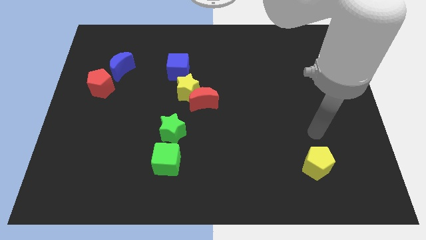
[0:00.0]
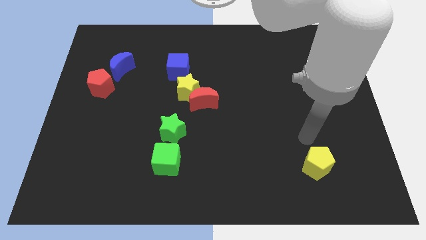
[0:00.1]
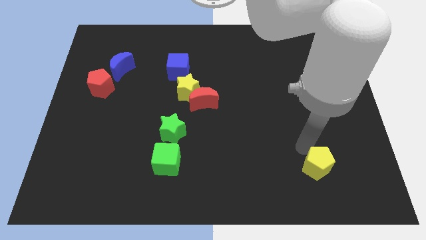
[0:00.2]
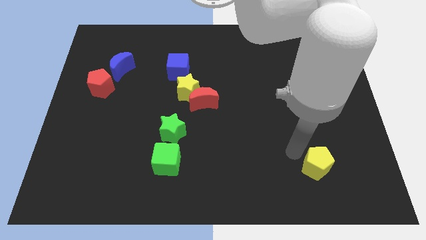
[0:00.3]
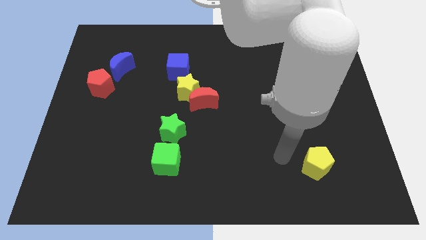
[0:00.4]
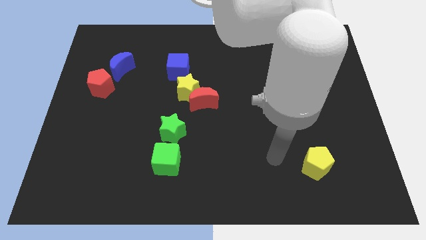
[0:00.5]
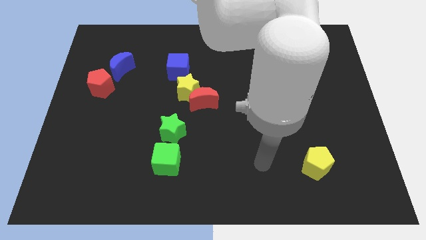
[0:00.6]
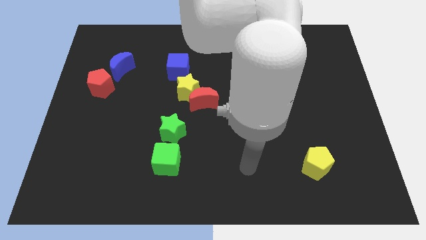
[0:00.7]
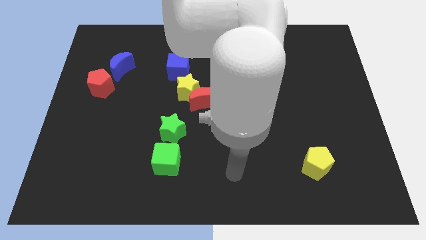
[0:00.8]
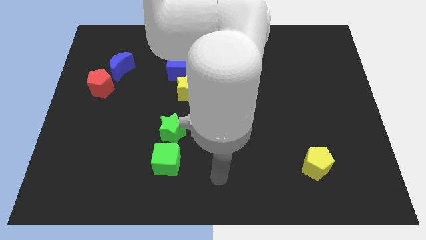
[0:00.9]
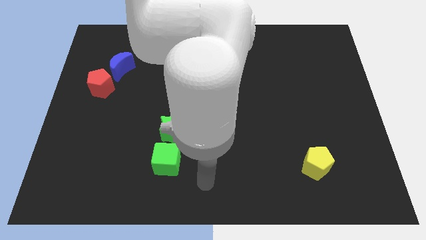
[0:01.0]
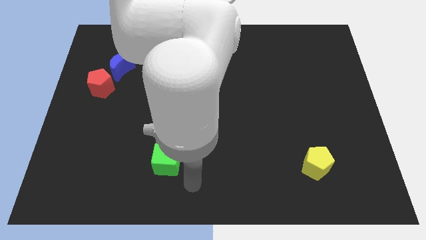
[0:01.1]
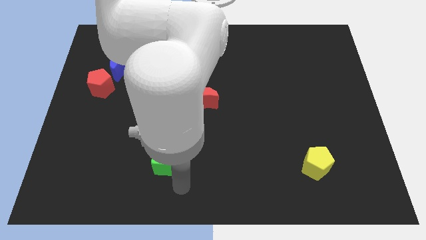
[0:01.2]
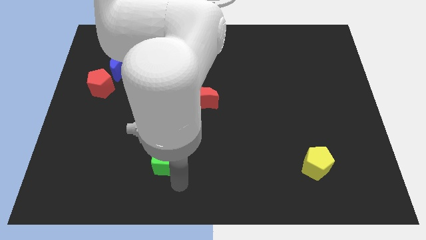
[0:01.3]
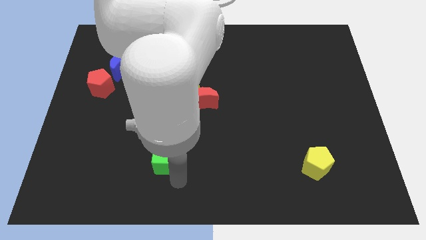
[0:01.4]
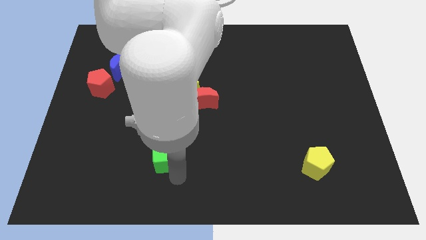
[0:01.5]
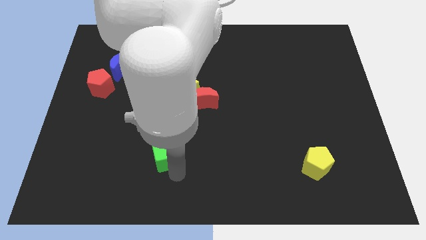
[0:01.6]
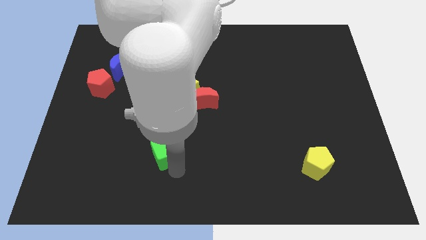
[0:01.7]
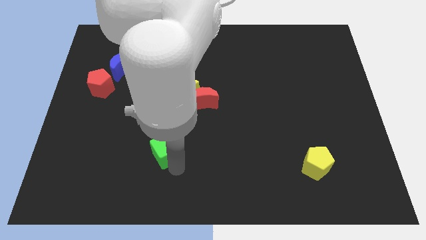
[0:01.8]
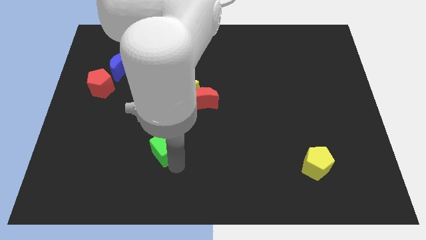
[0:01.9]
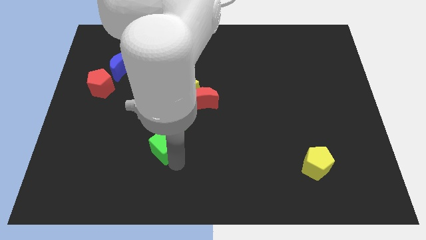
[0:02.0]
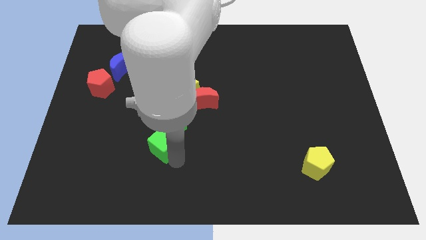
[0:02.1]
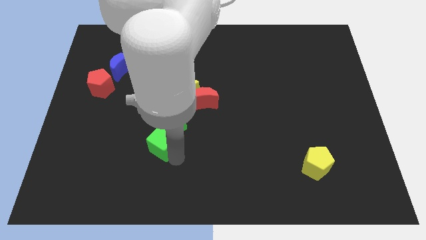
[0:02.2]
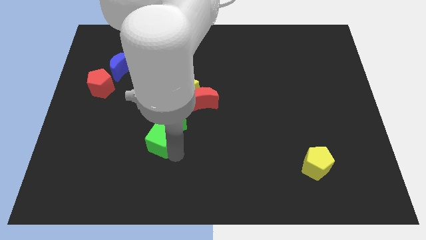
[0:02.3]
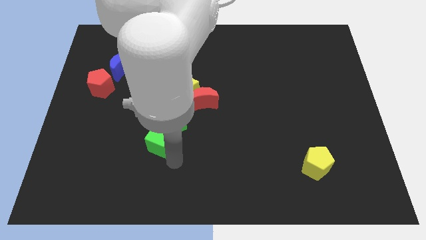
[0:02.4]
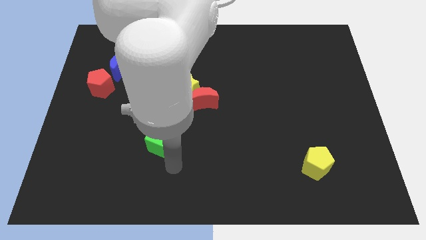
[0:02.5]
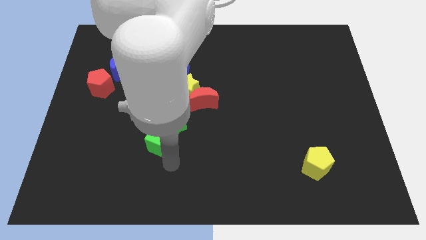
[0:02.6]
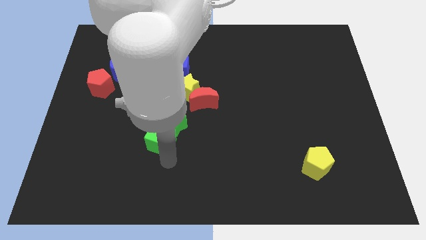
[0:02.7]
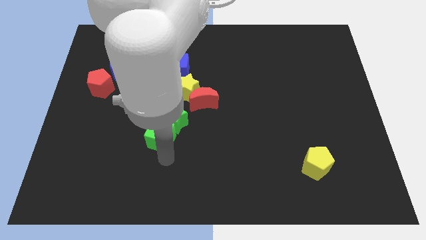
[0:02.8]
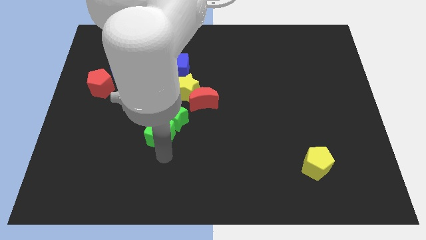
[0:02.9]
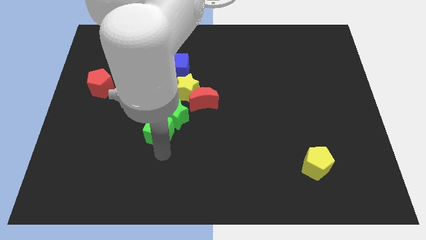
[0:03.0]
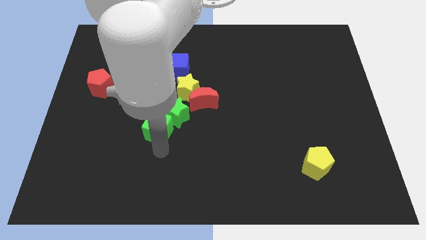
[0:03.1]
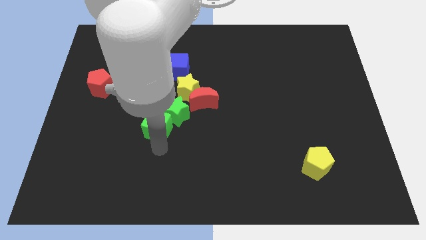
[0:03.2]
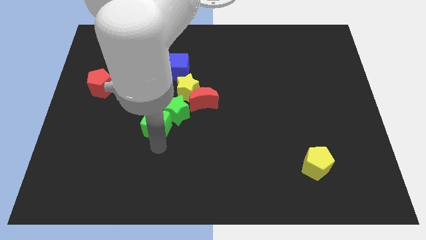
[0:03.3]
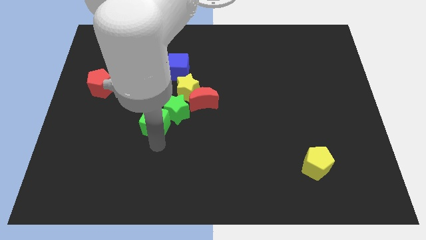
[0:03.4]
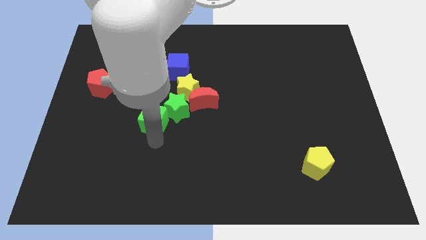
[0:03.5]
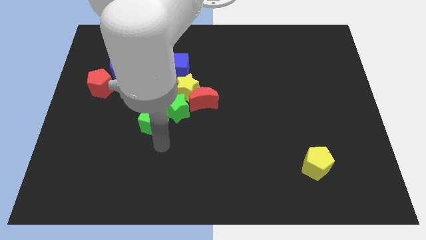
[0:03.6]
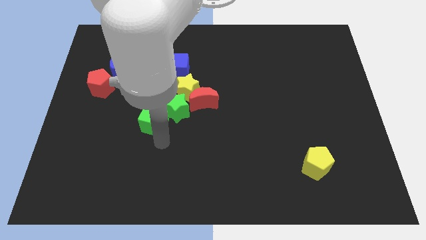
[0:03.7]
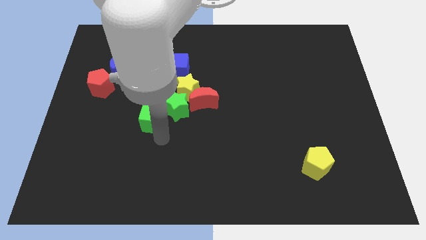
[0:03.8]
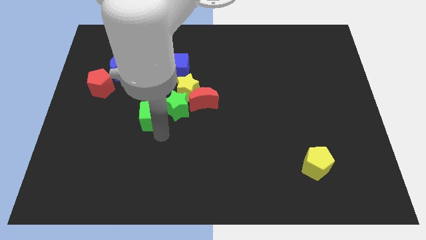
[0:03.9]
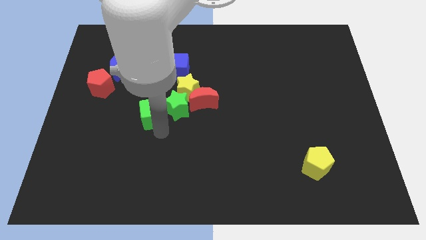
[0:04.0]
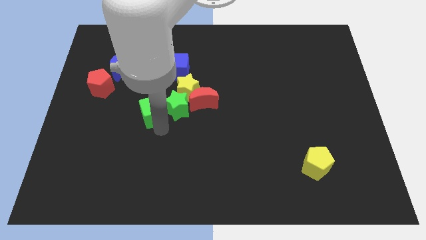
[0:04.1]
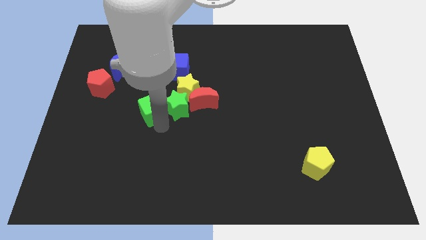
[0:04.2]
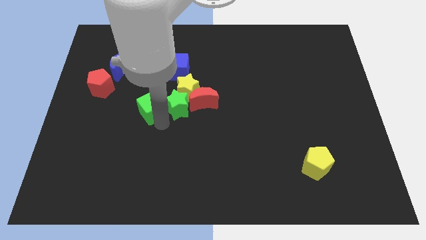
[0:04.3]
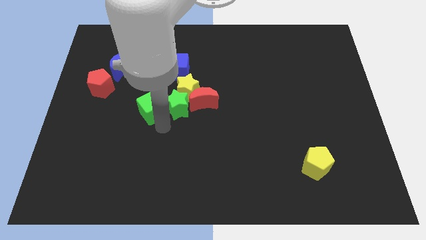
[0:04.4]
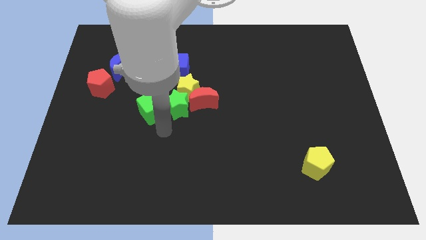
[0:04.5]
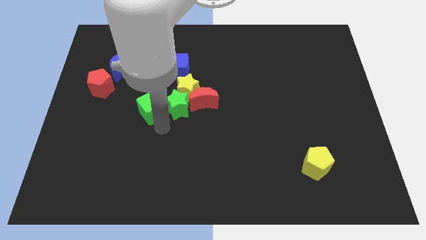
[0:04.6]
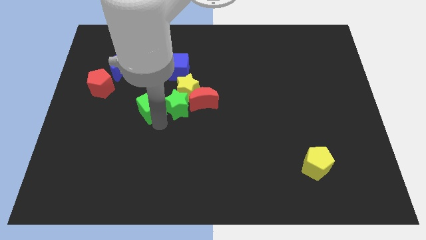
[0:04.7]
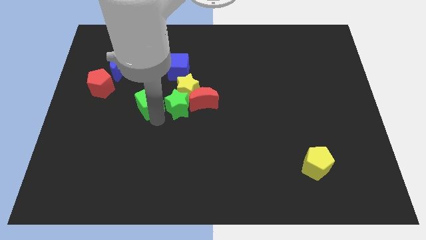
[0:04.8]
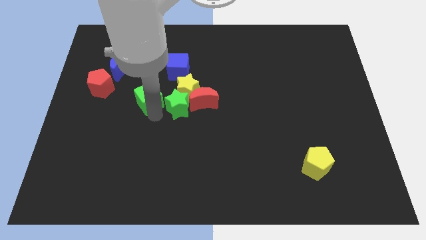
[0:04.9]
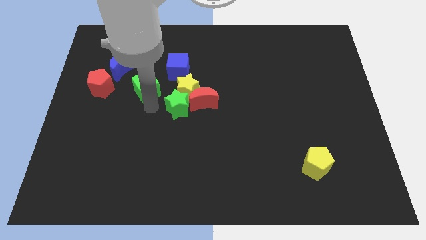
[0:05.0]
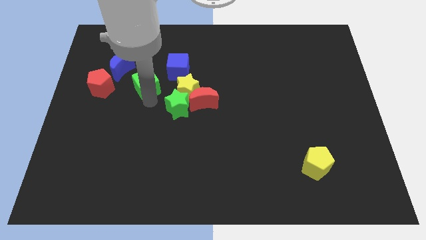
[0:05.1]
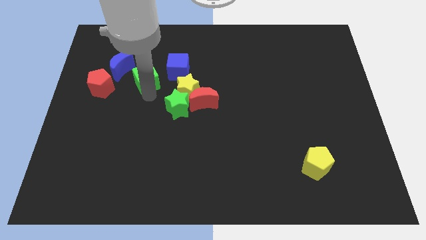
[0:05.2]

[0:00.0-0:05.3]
slide the green cube left of the blue cube

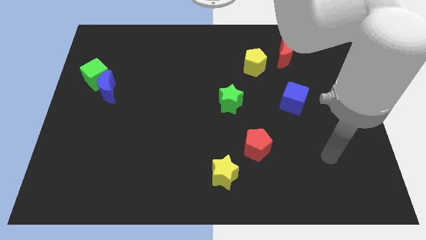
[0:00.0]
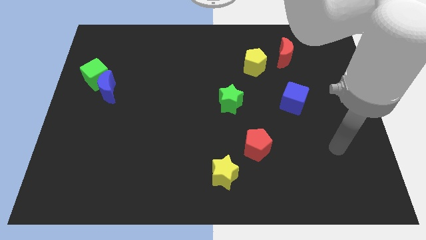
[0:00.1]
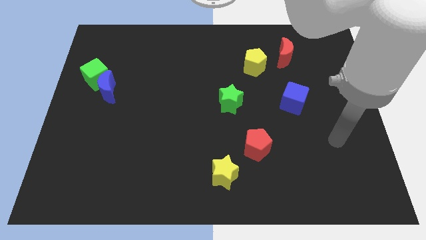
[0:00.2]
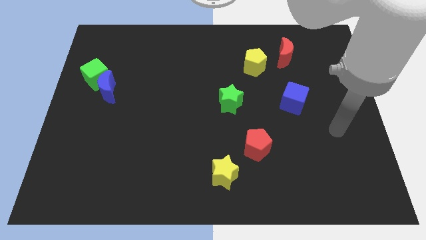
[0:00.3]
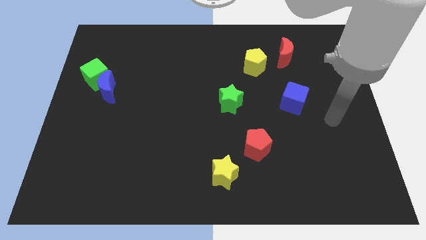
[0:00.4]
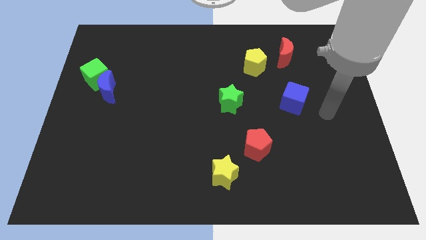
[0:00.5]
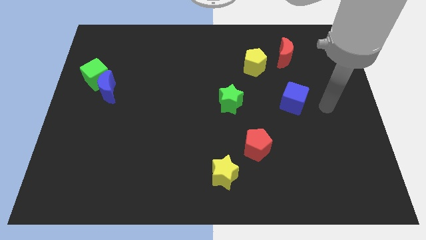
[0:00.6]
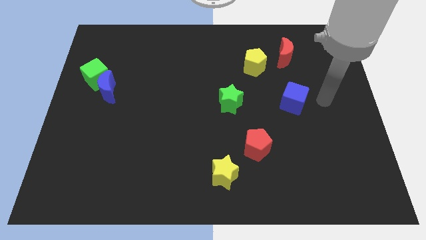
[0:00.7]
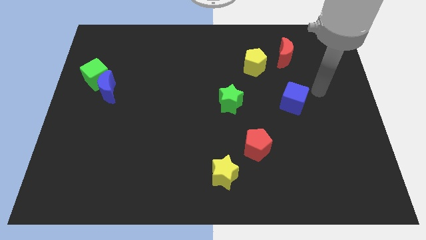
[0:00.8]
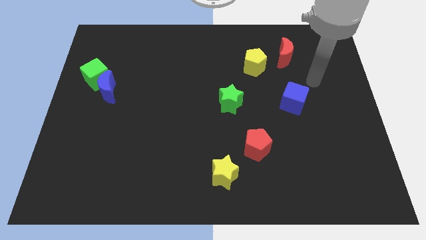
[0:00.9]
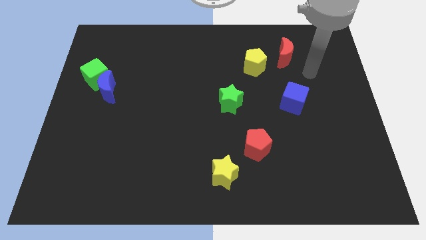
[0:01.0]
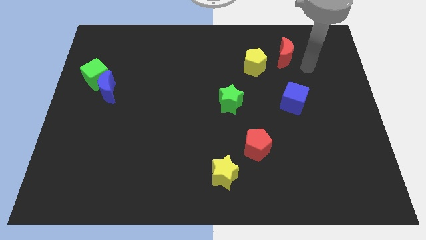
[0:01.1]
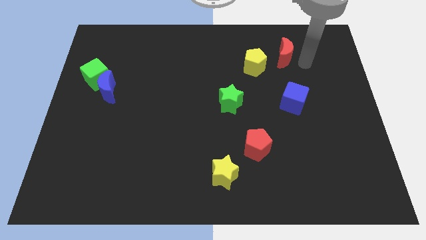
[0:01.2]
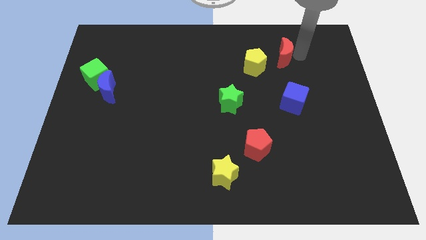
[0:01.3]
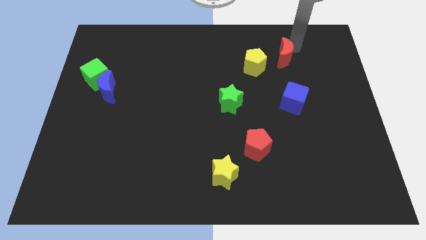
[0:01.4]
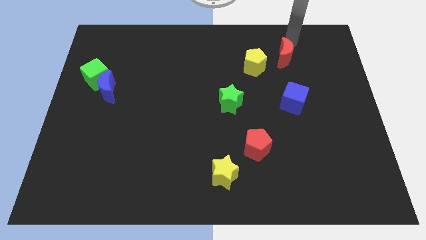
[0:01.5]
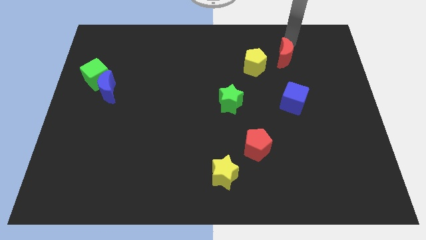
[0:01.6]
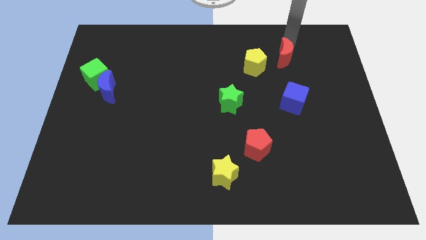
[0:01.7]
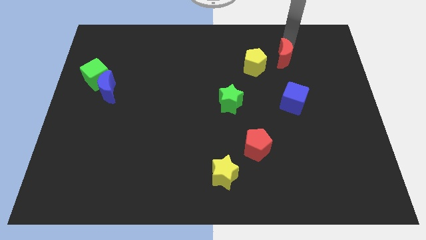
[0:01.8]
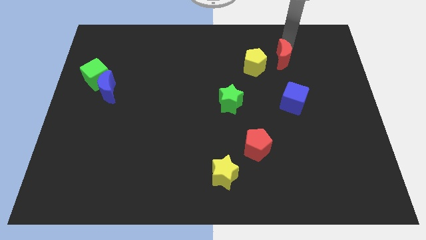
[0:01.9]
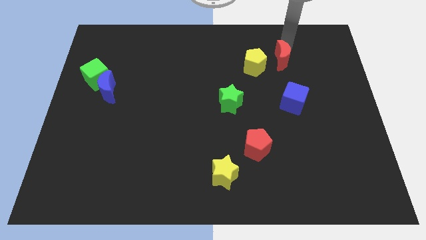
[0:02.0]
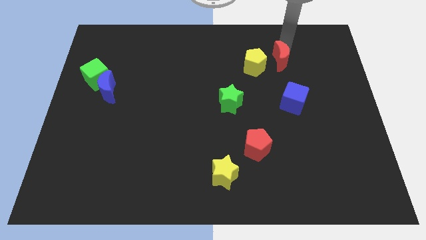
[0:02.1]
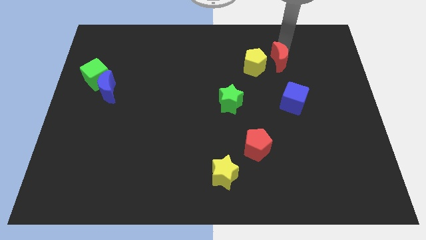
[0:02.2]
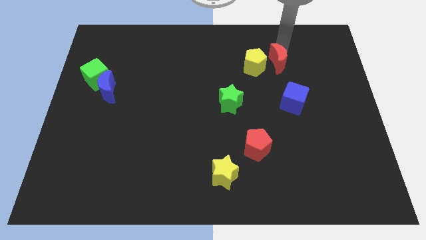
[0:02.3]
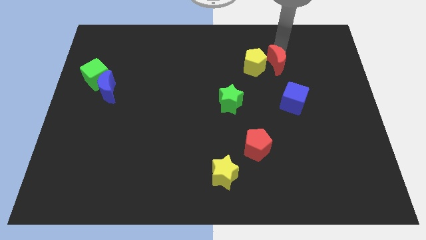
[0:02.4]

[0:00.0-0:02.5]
move the red moon diagonally down and to the right of the yellow pentagon
